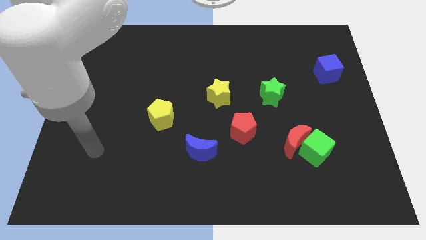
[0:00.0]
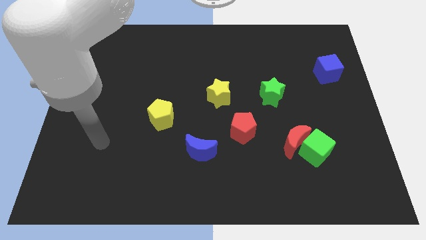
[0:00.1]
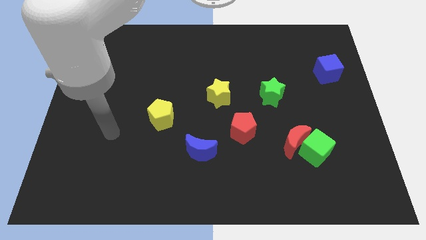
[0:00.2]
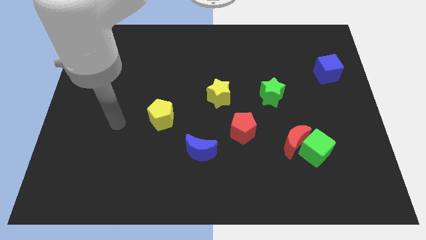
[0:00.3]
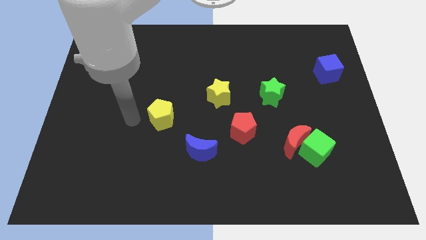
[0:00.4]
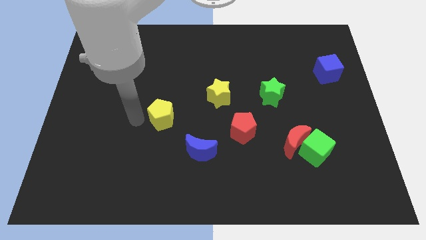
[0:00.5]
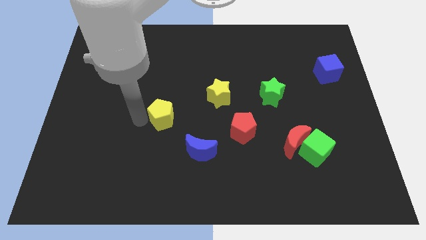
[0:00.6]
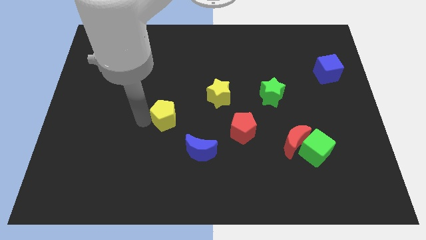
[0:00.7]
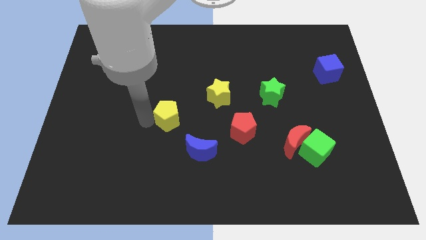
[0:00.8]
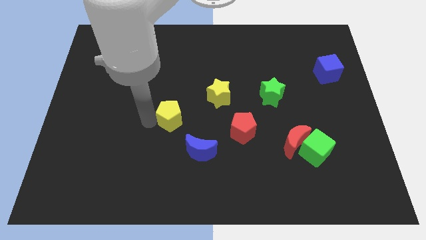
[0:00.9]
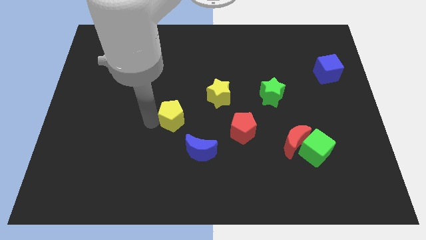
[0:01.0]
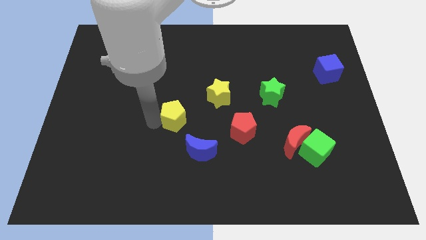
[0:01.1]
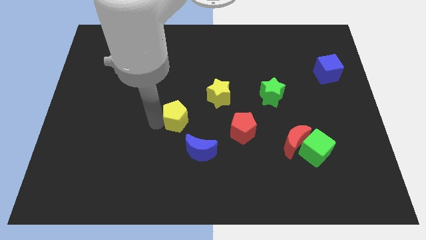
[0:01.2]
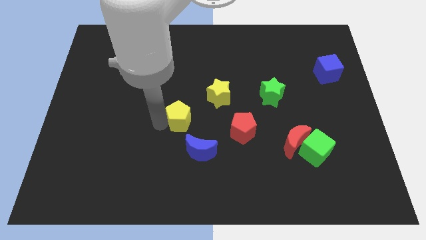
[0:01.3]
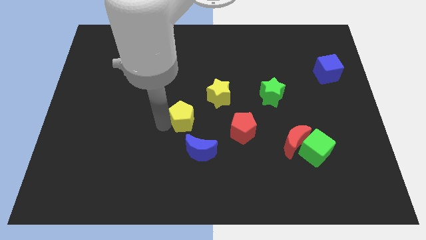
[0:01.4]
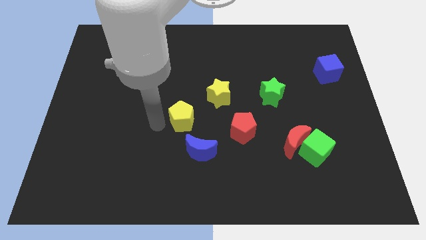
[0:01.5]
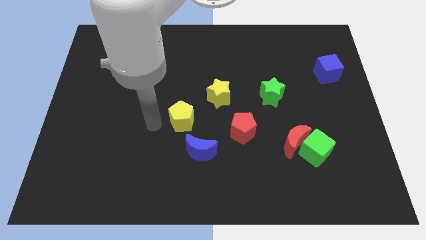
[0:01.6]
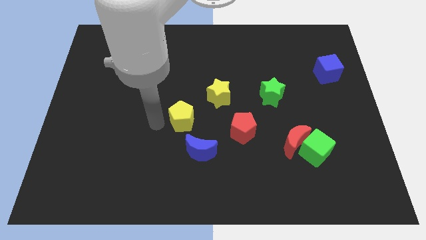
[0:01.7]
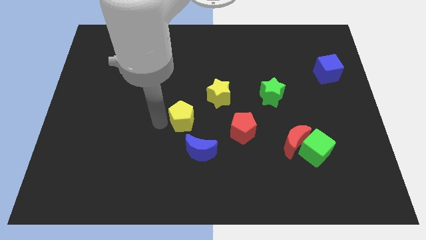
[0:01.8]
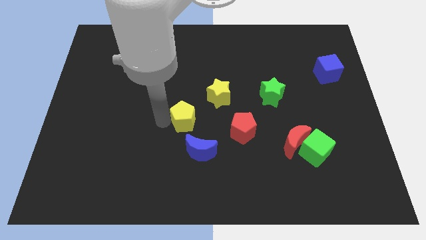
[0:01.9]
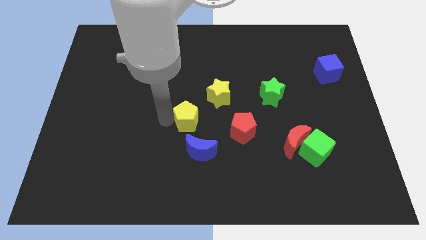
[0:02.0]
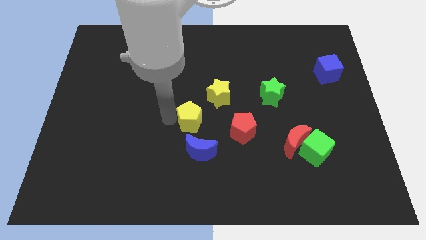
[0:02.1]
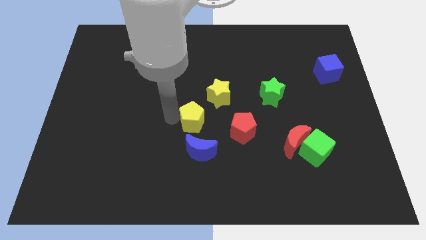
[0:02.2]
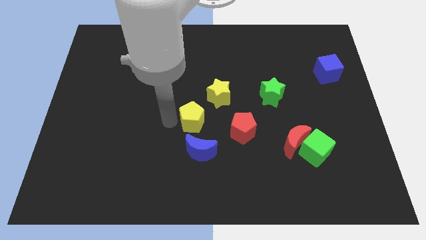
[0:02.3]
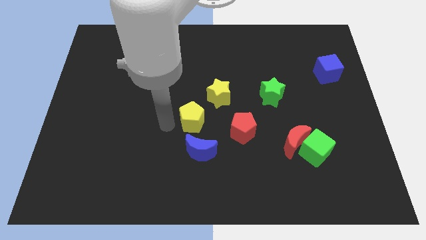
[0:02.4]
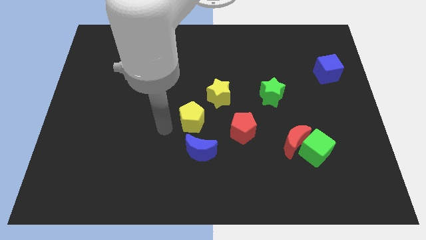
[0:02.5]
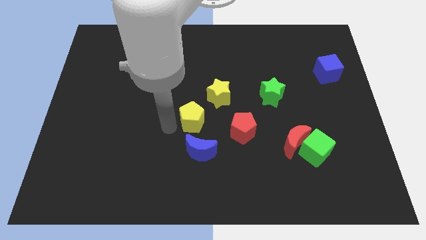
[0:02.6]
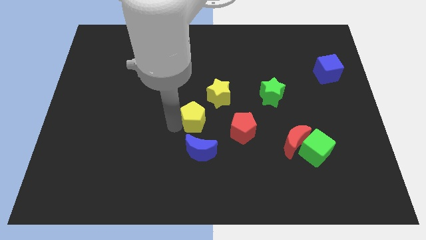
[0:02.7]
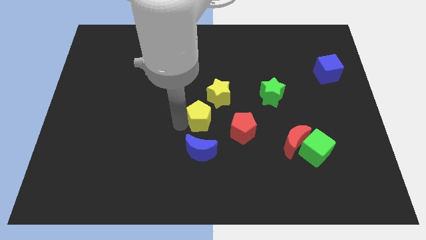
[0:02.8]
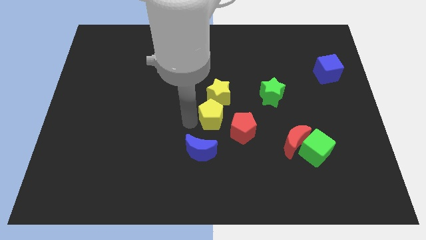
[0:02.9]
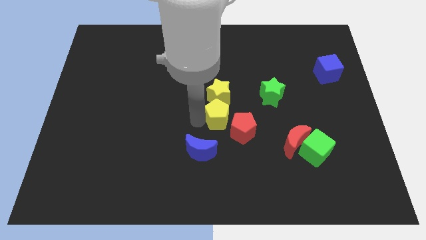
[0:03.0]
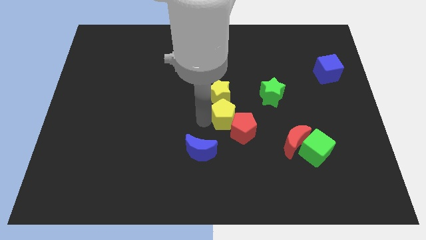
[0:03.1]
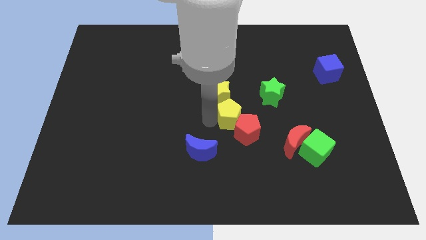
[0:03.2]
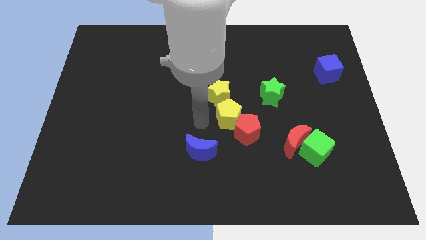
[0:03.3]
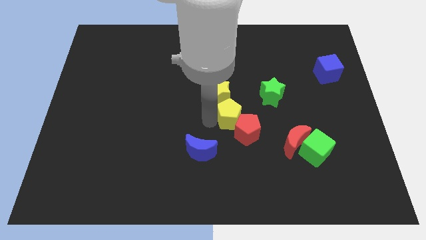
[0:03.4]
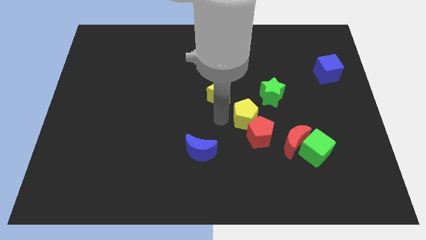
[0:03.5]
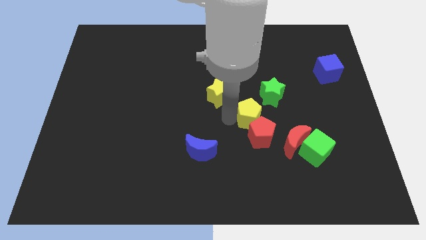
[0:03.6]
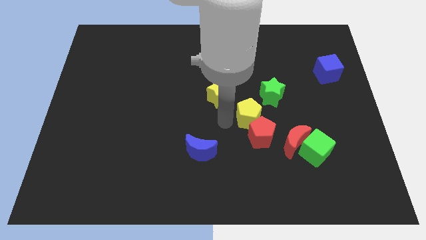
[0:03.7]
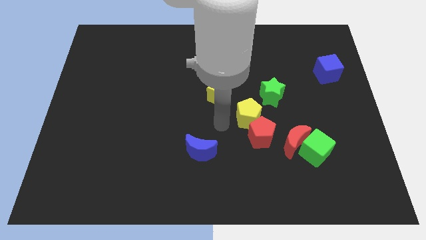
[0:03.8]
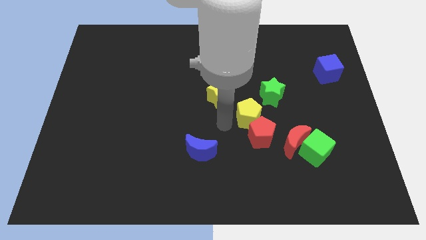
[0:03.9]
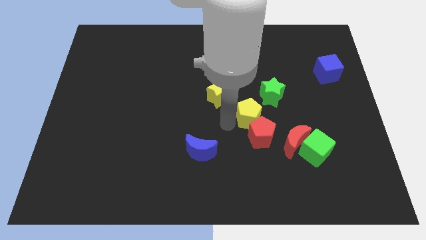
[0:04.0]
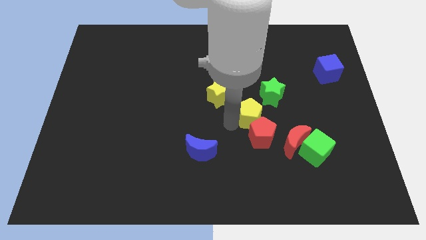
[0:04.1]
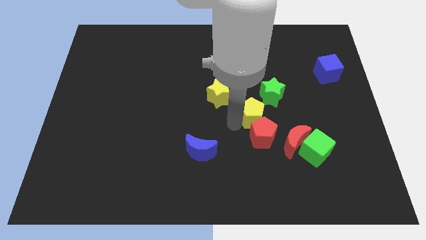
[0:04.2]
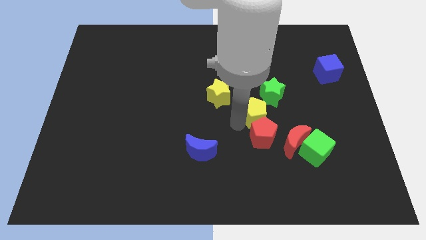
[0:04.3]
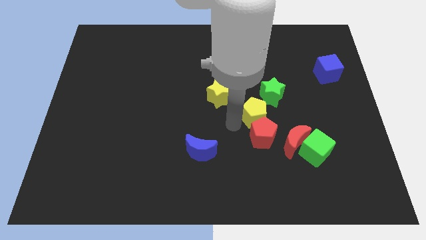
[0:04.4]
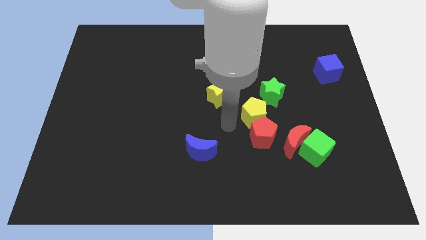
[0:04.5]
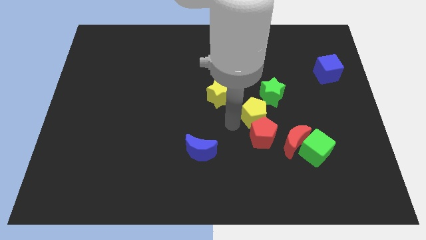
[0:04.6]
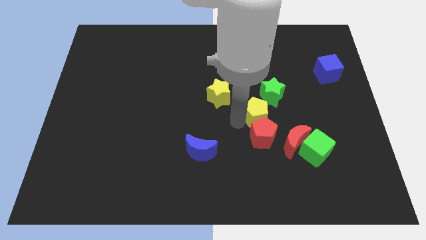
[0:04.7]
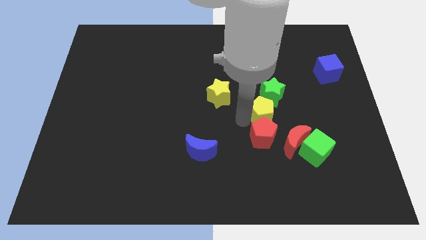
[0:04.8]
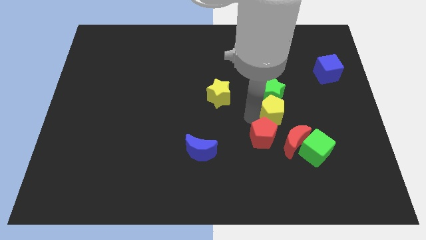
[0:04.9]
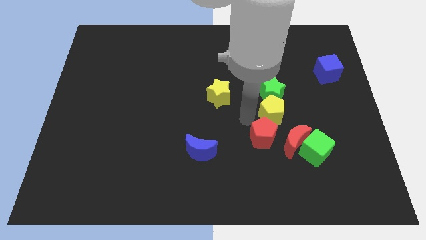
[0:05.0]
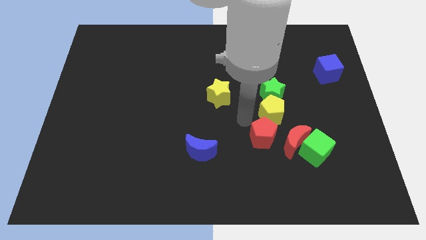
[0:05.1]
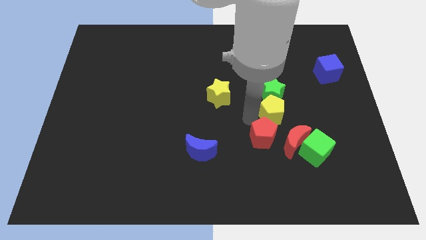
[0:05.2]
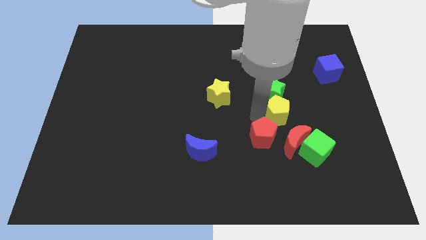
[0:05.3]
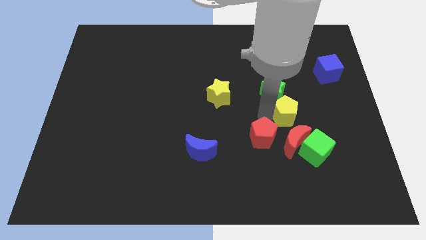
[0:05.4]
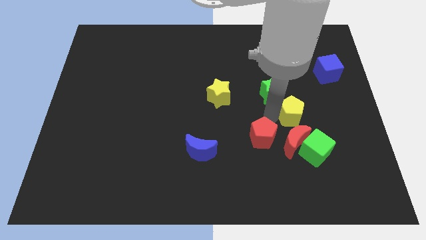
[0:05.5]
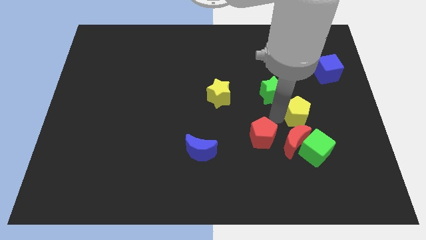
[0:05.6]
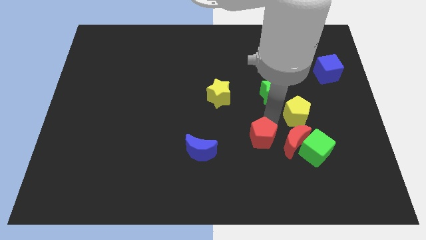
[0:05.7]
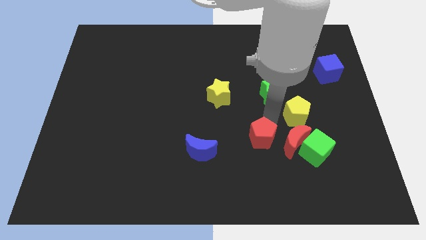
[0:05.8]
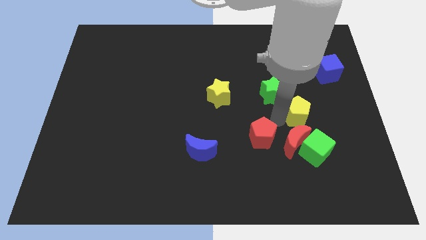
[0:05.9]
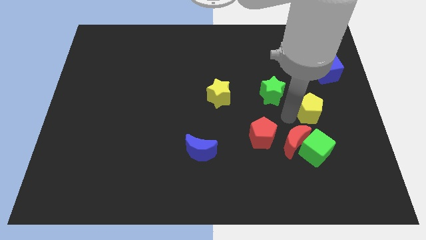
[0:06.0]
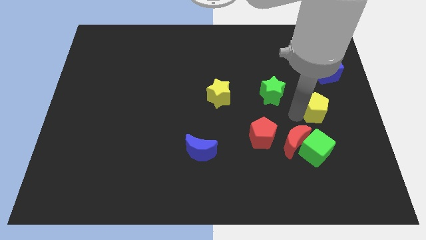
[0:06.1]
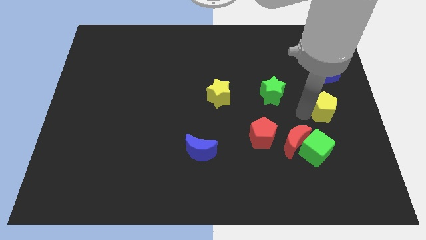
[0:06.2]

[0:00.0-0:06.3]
put the yellow pentagon below the blue cube

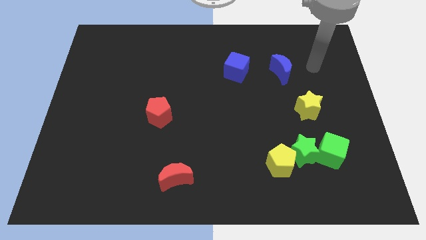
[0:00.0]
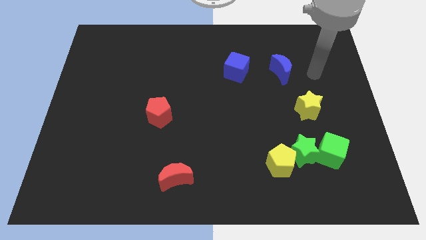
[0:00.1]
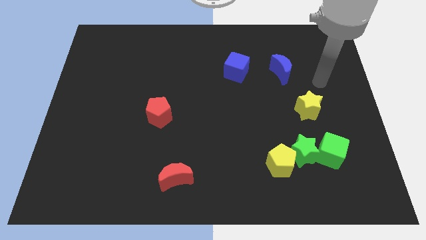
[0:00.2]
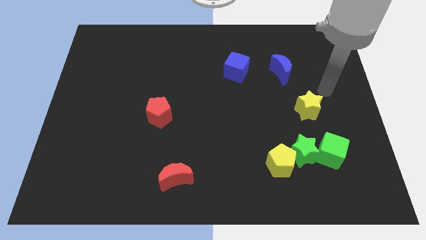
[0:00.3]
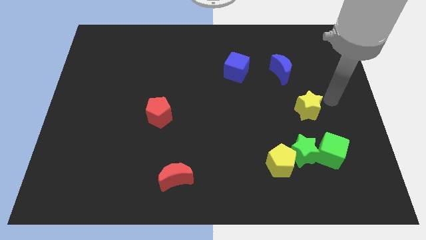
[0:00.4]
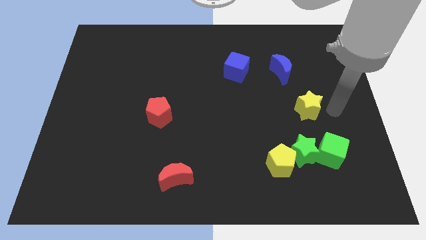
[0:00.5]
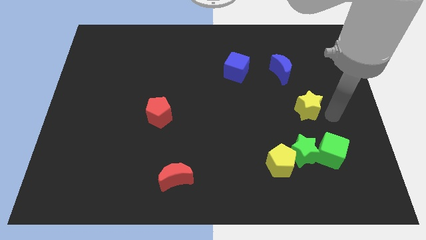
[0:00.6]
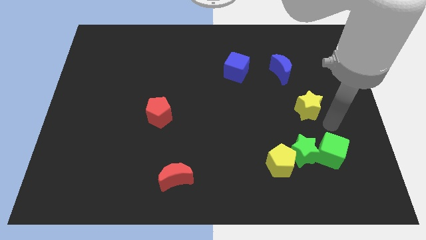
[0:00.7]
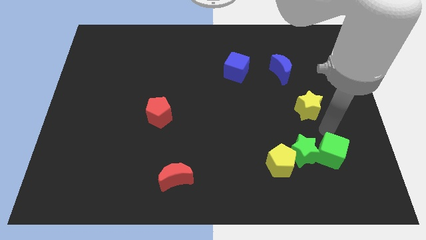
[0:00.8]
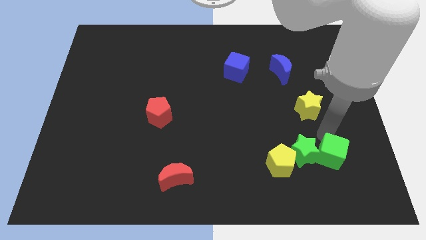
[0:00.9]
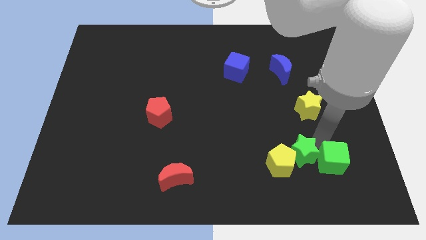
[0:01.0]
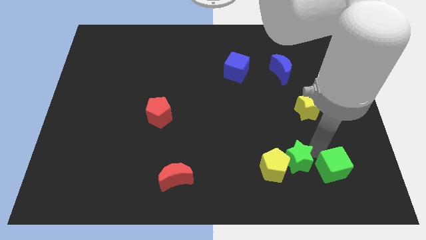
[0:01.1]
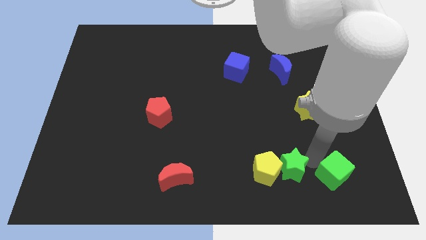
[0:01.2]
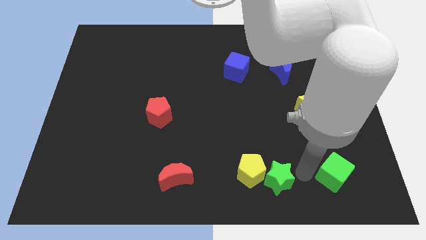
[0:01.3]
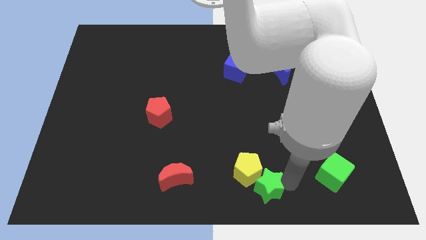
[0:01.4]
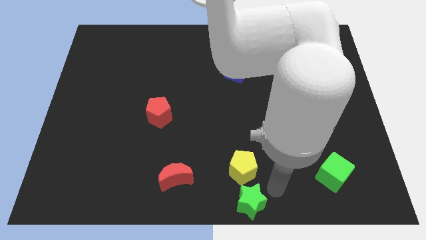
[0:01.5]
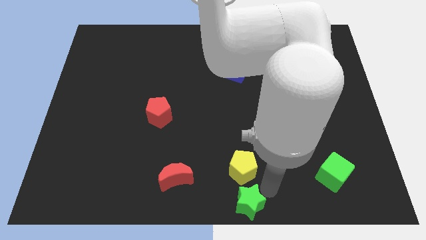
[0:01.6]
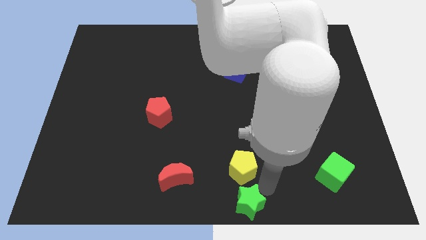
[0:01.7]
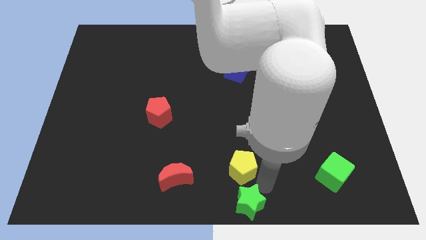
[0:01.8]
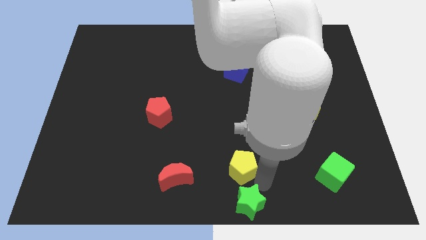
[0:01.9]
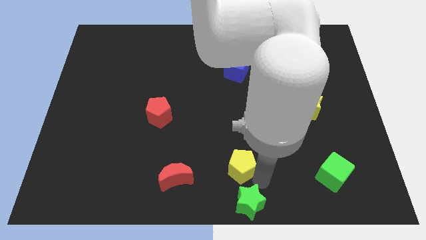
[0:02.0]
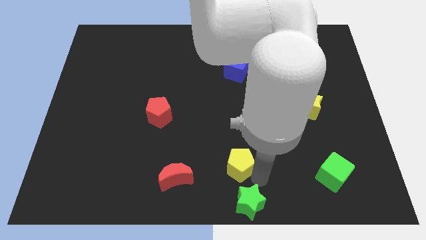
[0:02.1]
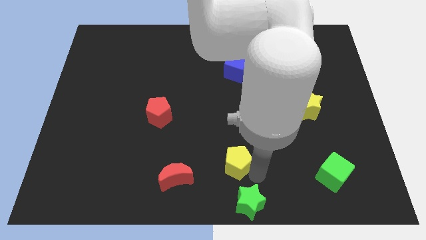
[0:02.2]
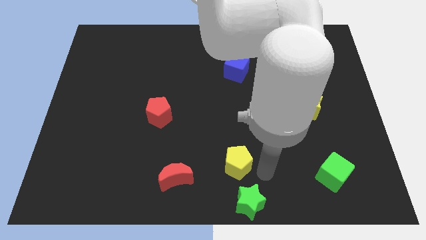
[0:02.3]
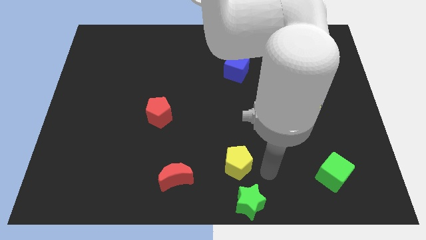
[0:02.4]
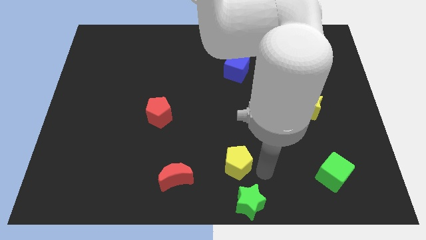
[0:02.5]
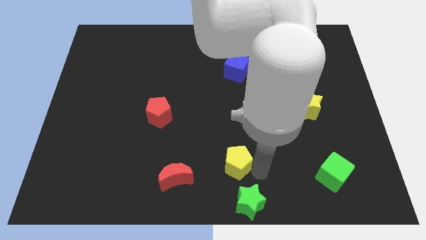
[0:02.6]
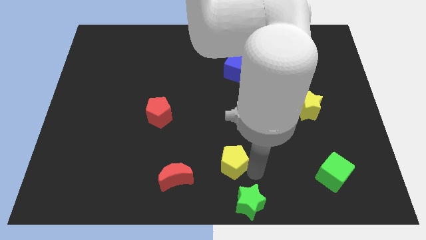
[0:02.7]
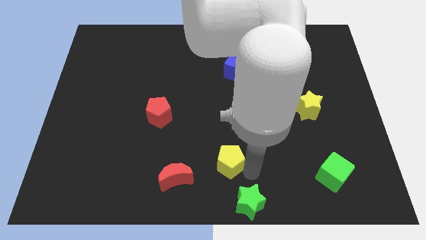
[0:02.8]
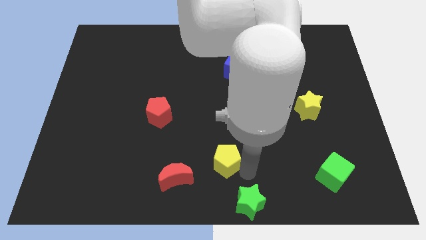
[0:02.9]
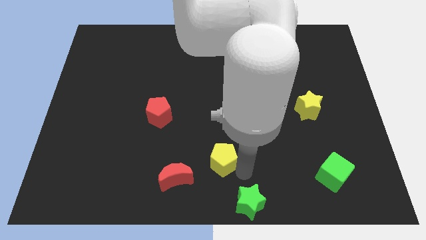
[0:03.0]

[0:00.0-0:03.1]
move the yellow pentagon to the top right side of the red moon
